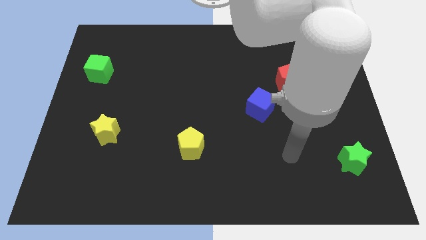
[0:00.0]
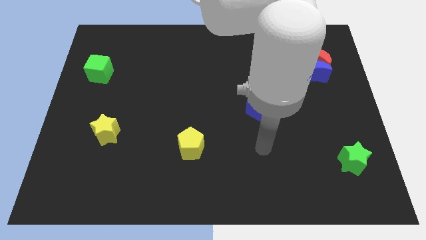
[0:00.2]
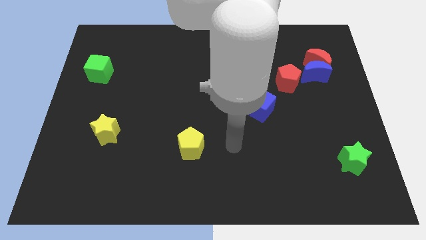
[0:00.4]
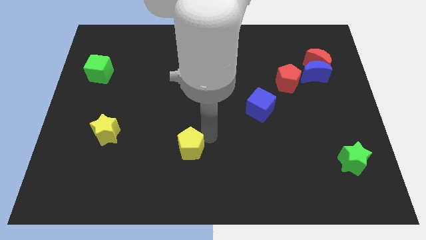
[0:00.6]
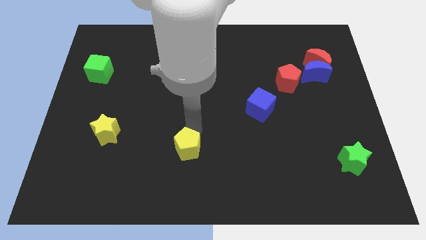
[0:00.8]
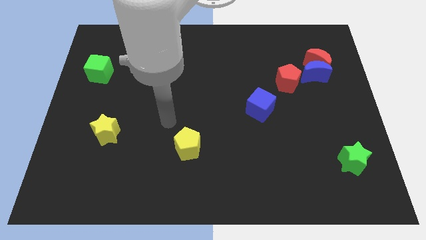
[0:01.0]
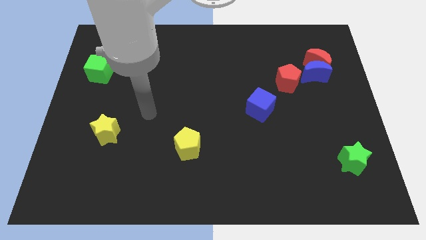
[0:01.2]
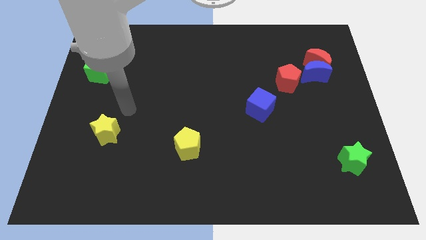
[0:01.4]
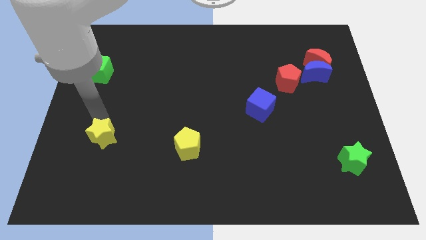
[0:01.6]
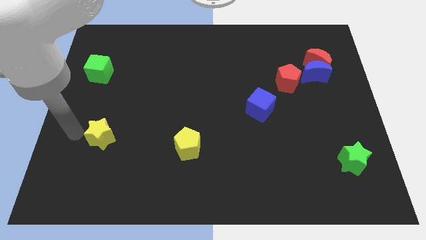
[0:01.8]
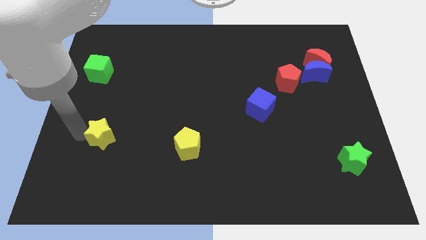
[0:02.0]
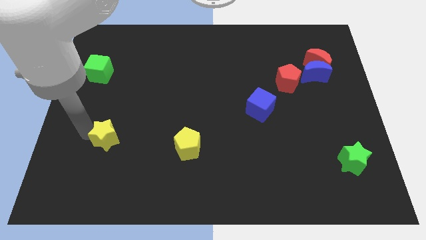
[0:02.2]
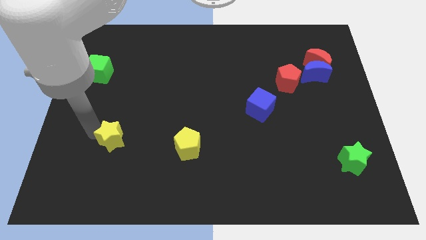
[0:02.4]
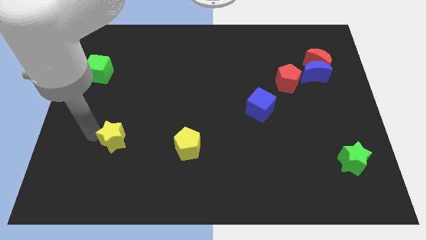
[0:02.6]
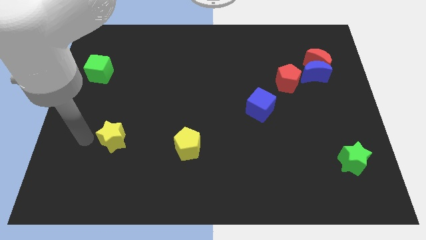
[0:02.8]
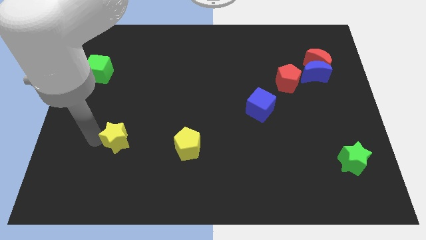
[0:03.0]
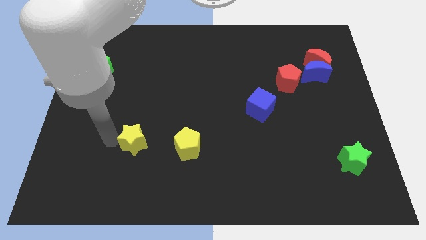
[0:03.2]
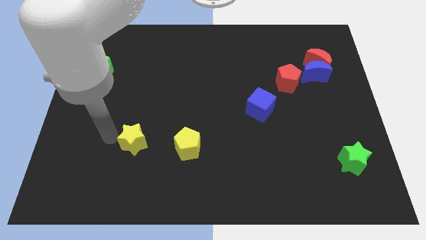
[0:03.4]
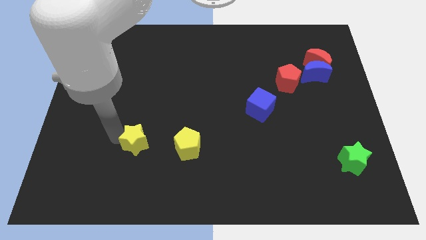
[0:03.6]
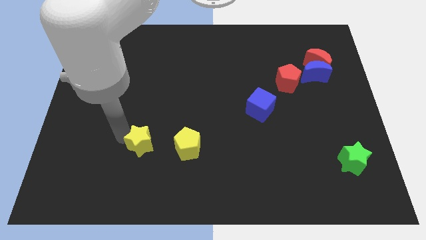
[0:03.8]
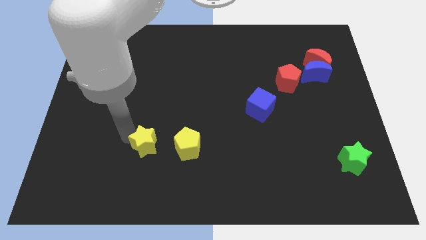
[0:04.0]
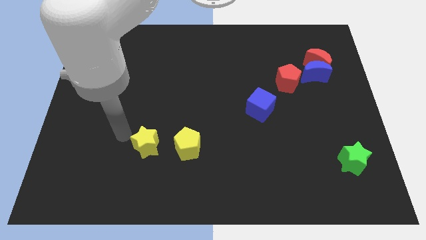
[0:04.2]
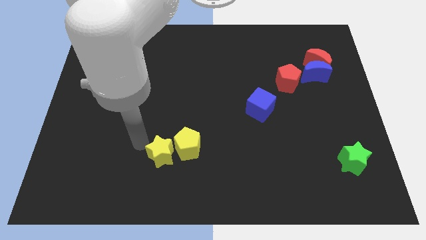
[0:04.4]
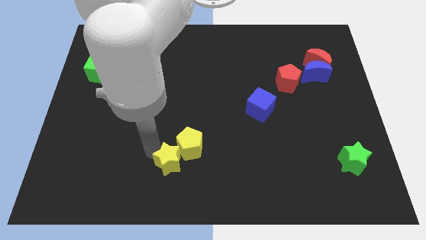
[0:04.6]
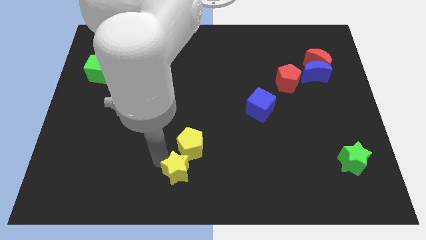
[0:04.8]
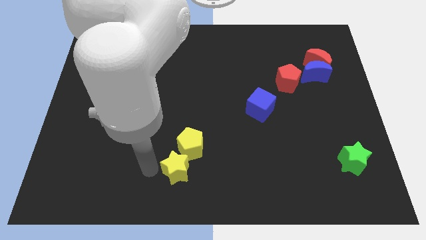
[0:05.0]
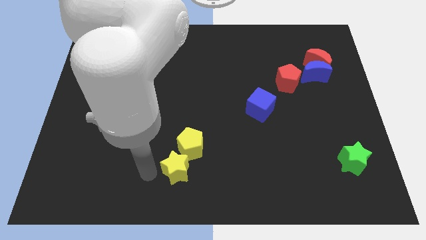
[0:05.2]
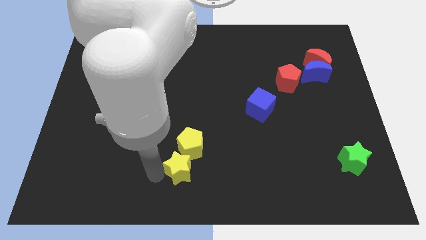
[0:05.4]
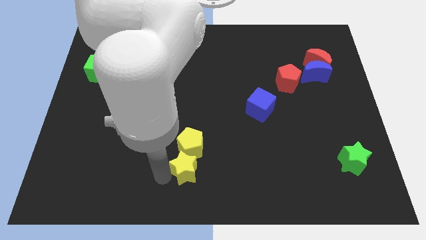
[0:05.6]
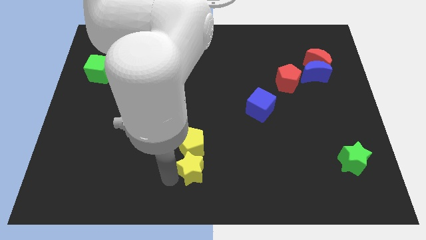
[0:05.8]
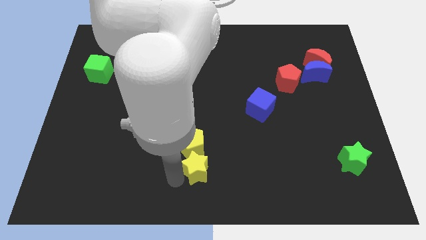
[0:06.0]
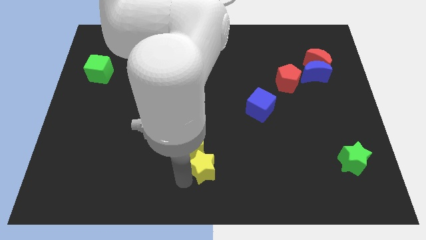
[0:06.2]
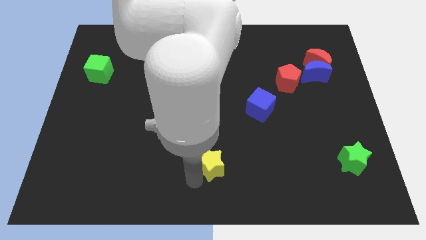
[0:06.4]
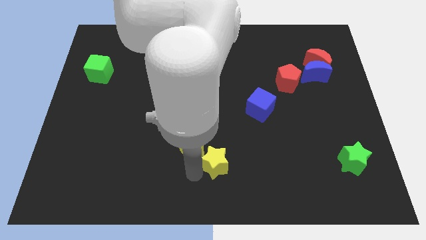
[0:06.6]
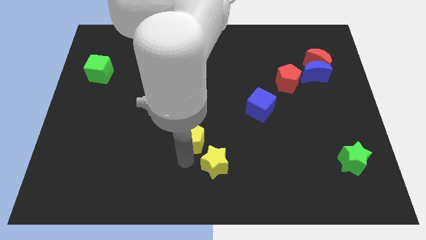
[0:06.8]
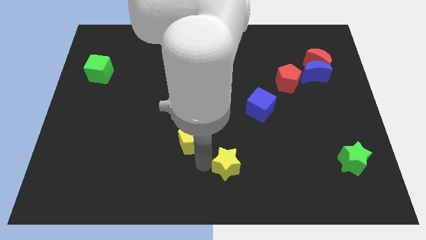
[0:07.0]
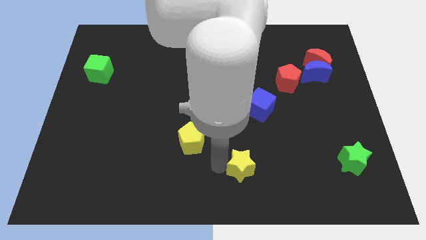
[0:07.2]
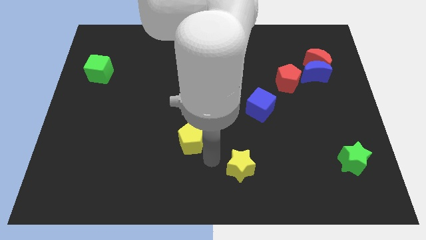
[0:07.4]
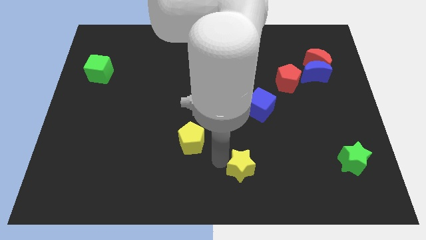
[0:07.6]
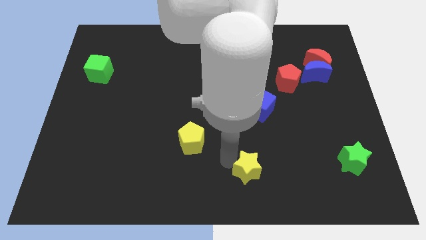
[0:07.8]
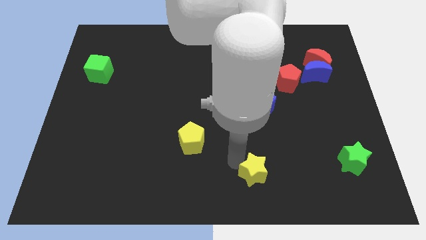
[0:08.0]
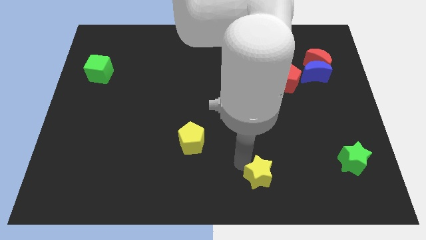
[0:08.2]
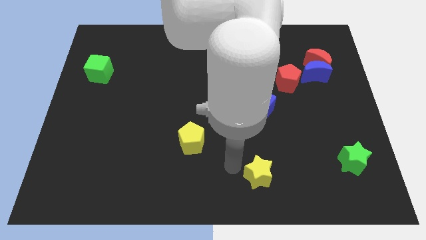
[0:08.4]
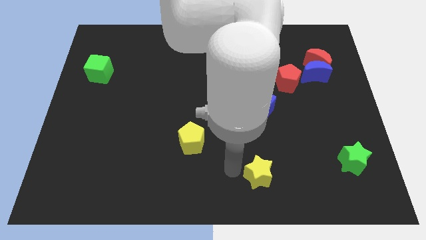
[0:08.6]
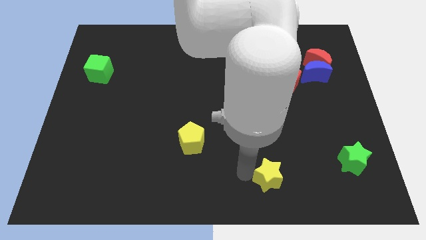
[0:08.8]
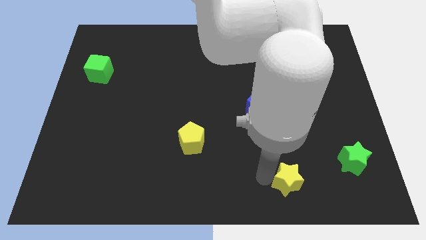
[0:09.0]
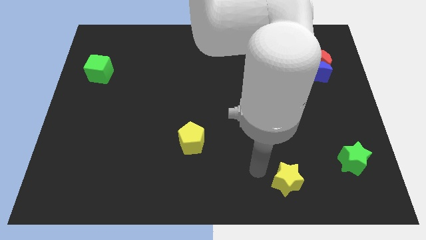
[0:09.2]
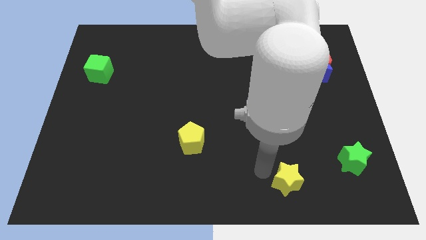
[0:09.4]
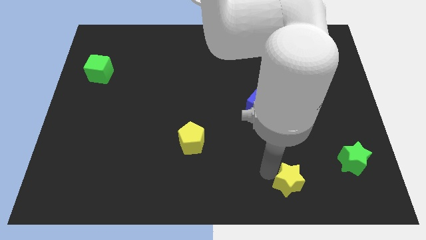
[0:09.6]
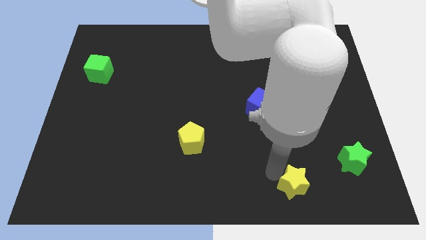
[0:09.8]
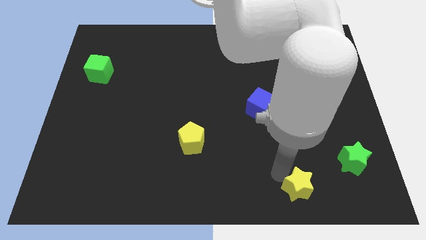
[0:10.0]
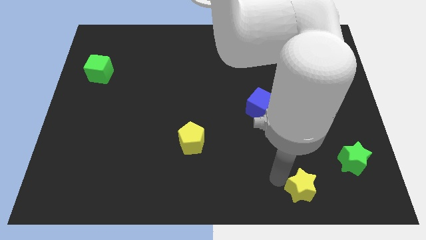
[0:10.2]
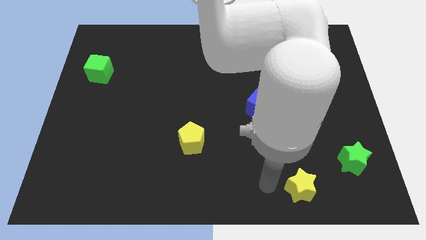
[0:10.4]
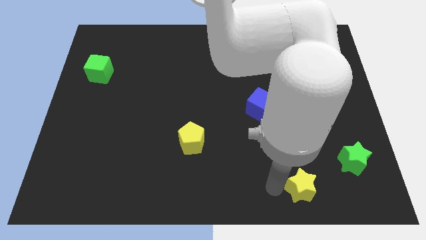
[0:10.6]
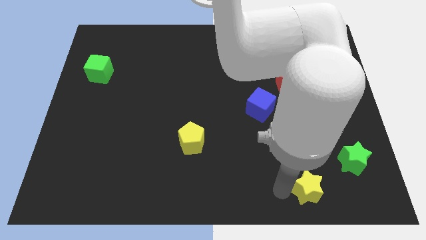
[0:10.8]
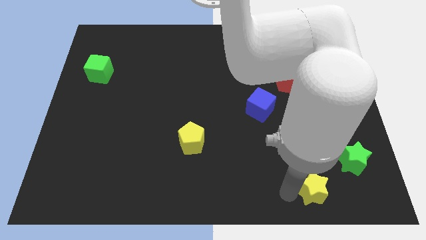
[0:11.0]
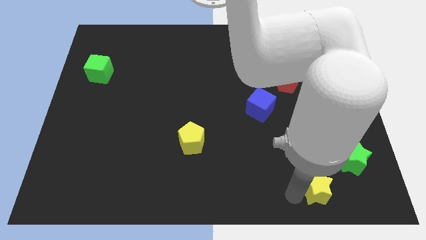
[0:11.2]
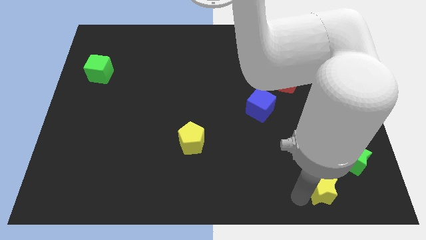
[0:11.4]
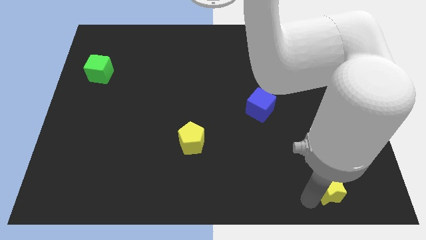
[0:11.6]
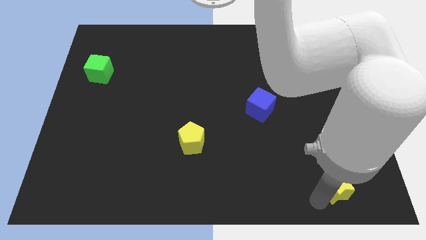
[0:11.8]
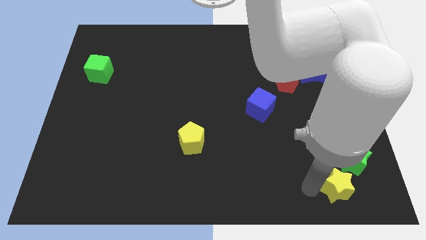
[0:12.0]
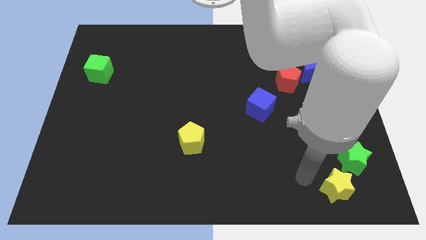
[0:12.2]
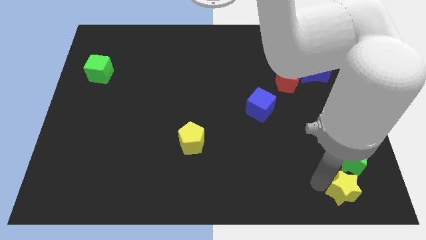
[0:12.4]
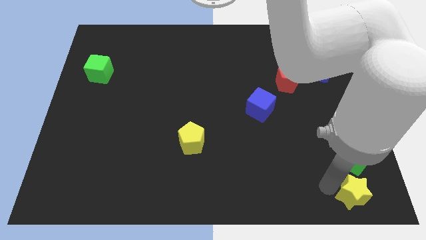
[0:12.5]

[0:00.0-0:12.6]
slide the yellow star to the lower right corner
